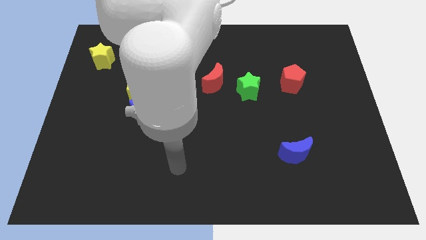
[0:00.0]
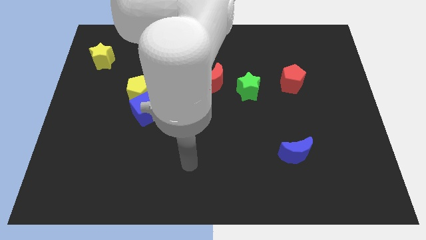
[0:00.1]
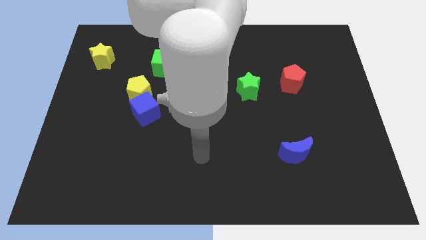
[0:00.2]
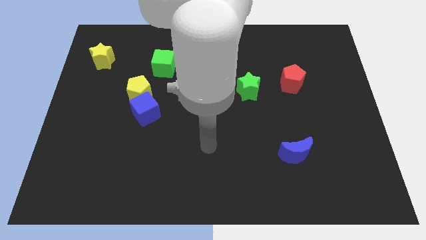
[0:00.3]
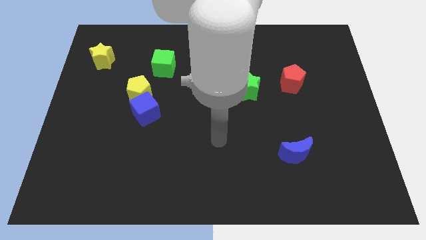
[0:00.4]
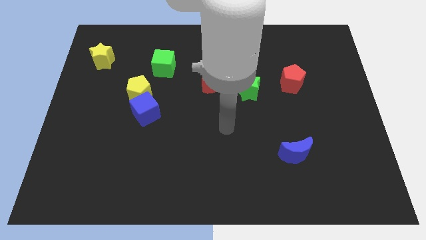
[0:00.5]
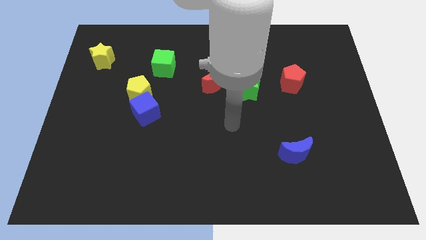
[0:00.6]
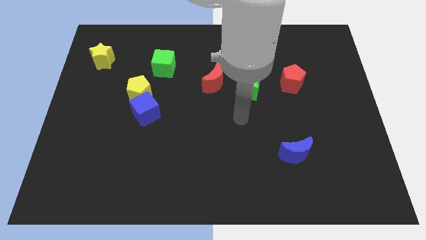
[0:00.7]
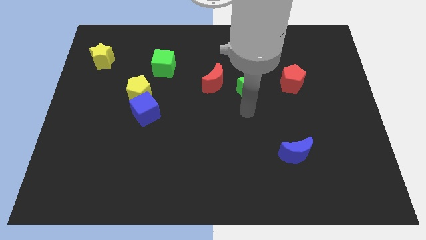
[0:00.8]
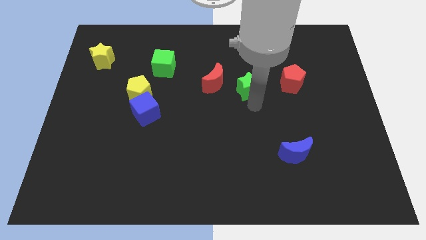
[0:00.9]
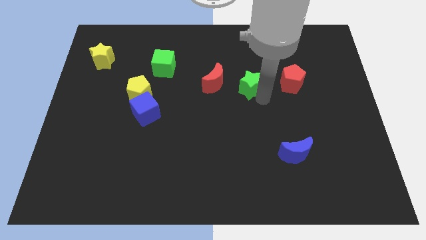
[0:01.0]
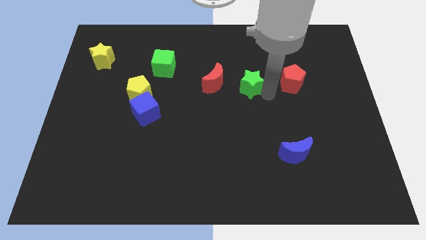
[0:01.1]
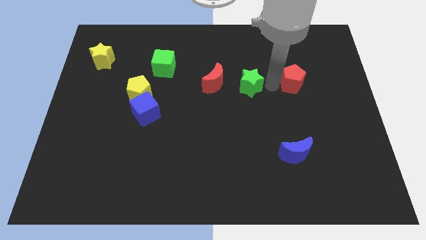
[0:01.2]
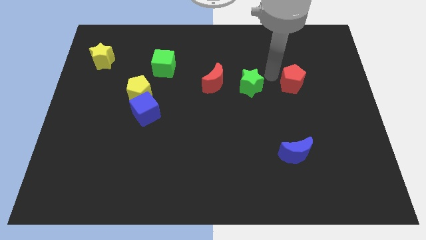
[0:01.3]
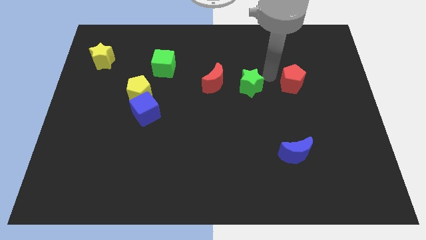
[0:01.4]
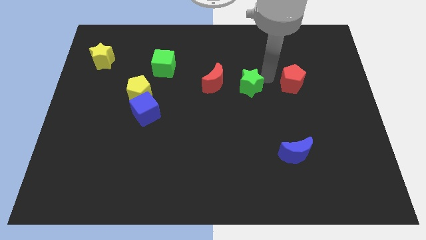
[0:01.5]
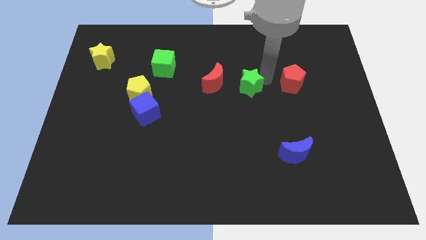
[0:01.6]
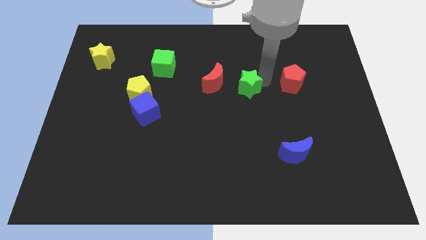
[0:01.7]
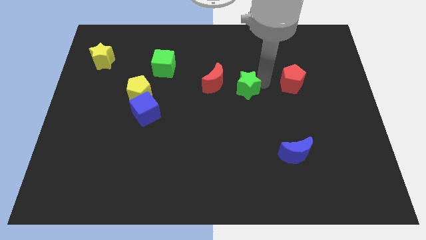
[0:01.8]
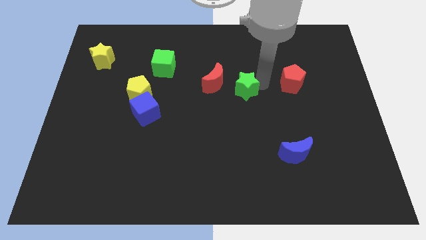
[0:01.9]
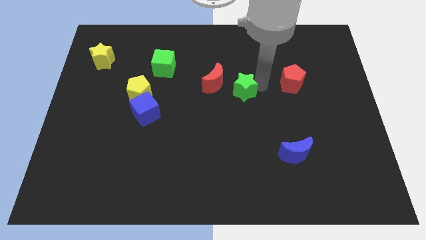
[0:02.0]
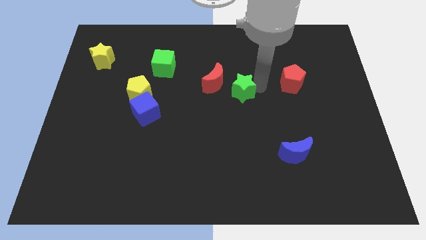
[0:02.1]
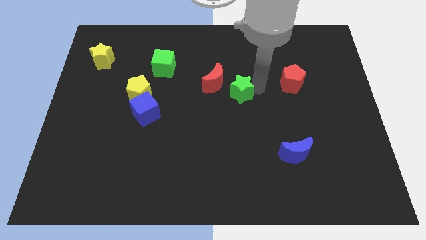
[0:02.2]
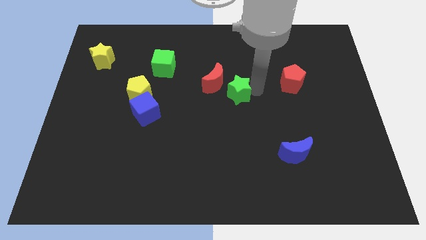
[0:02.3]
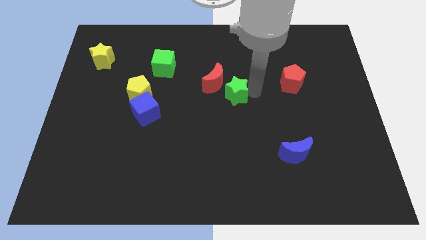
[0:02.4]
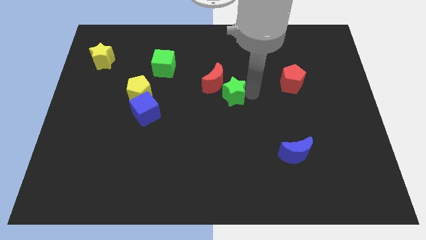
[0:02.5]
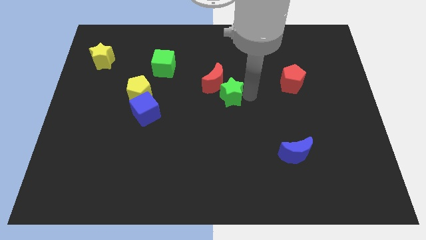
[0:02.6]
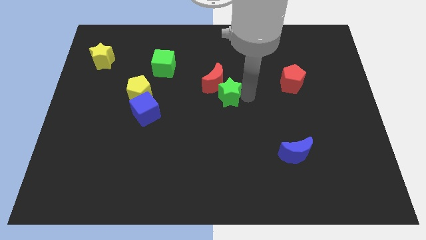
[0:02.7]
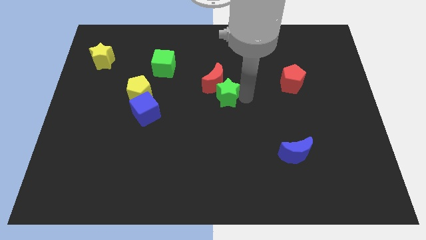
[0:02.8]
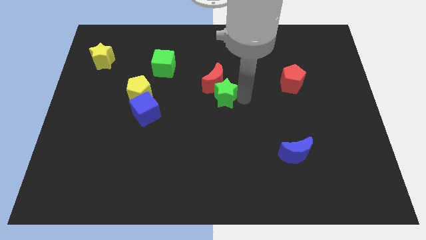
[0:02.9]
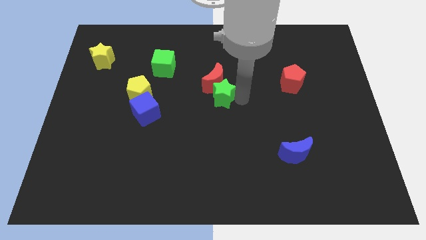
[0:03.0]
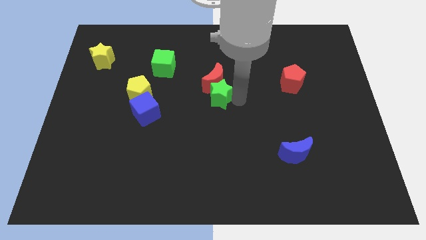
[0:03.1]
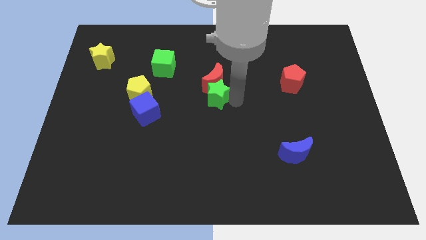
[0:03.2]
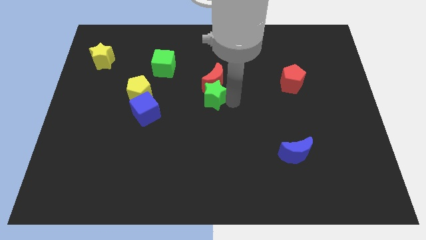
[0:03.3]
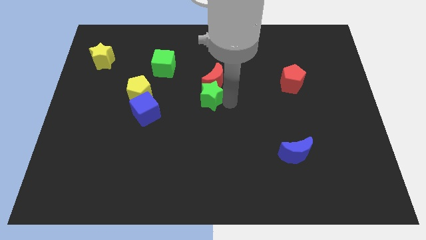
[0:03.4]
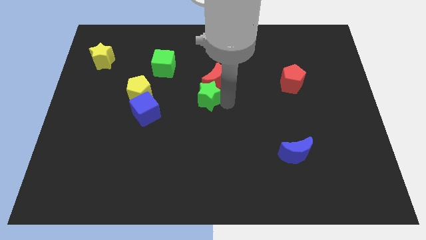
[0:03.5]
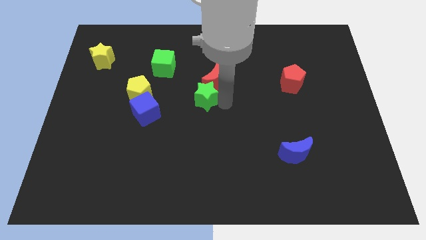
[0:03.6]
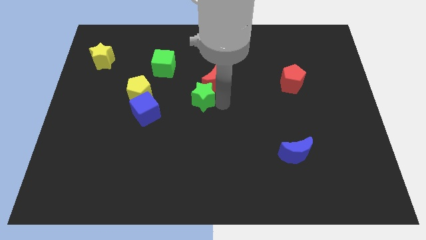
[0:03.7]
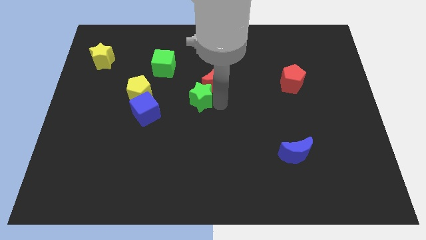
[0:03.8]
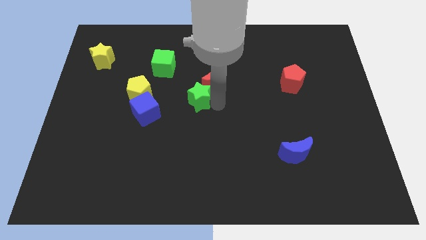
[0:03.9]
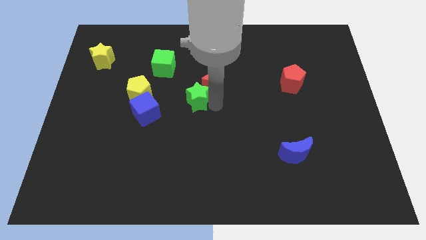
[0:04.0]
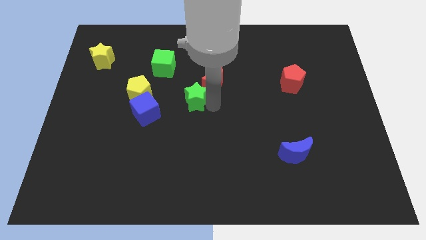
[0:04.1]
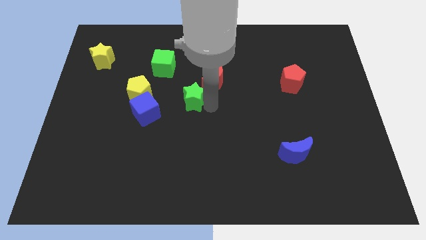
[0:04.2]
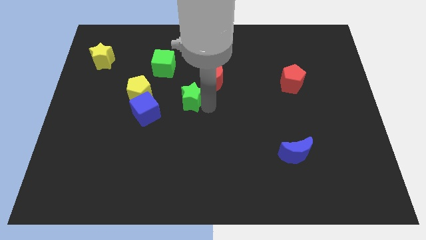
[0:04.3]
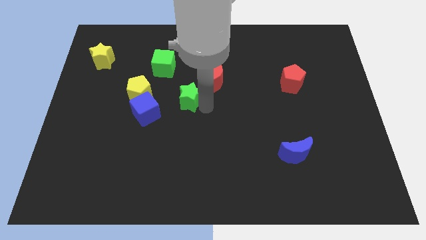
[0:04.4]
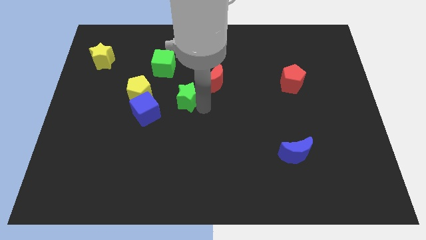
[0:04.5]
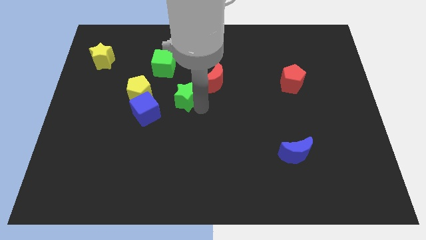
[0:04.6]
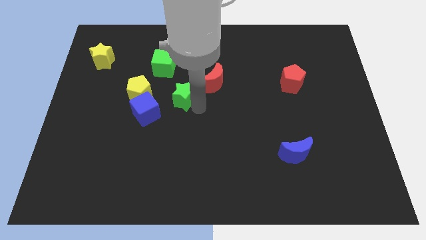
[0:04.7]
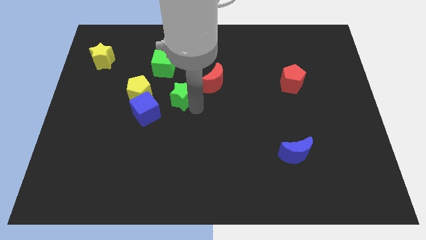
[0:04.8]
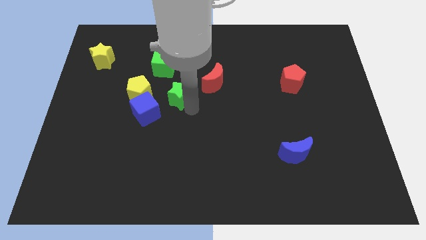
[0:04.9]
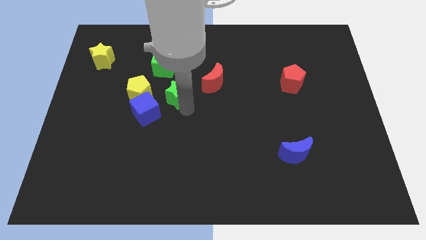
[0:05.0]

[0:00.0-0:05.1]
slide the green star to the left side of the red moon

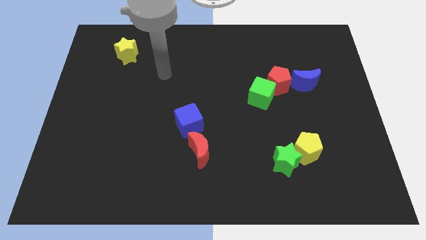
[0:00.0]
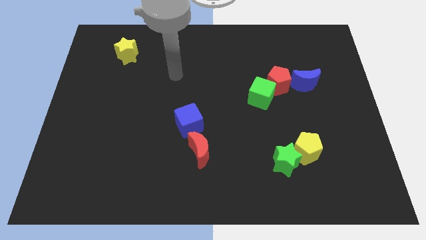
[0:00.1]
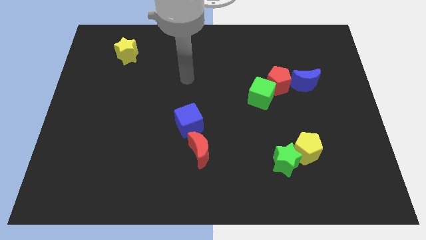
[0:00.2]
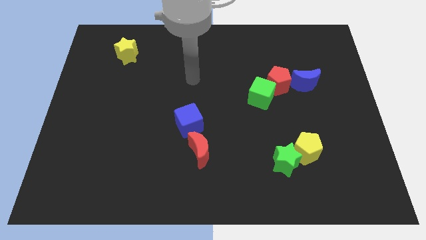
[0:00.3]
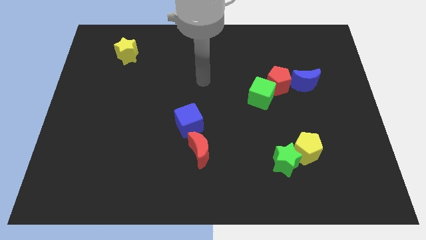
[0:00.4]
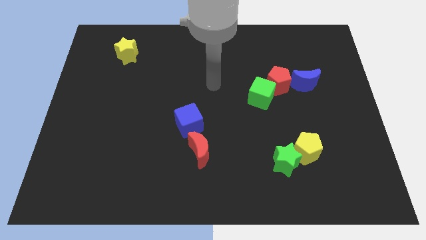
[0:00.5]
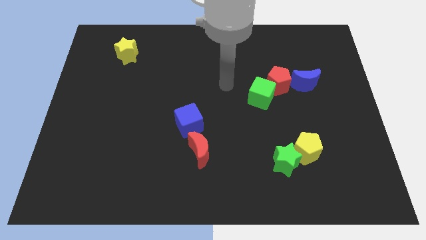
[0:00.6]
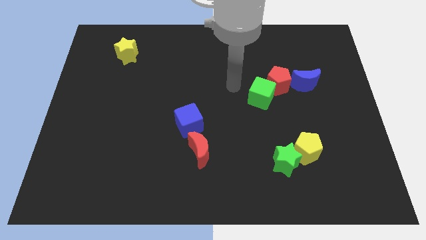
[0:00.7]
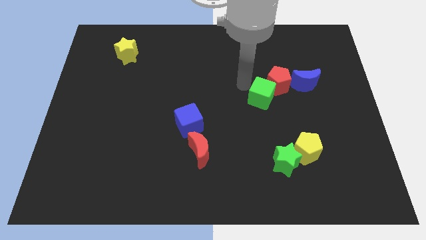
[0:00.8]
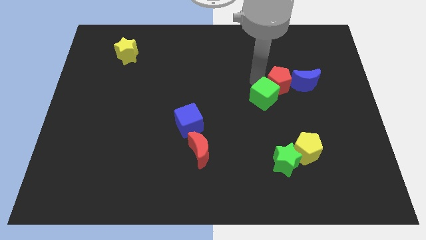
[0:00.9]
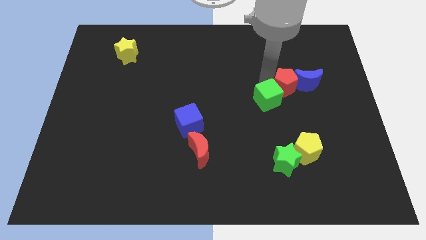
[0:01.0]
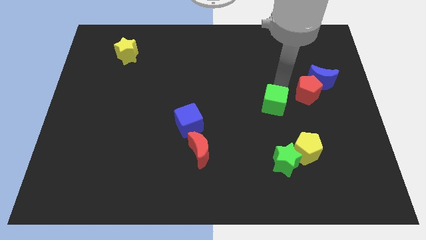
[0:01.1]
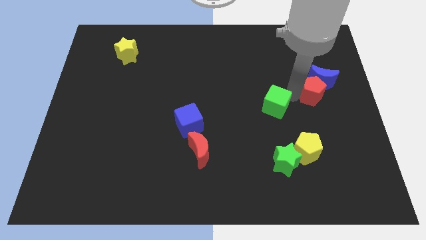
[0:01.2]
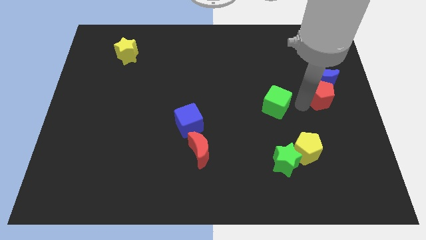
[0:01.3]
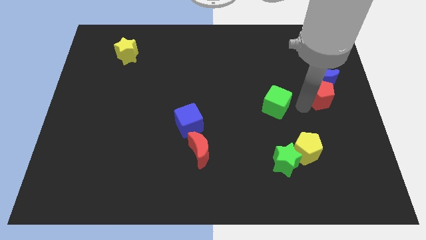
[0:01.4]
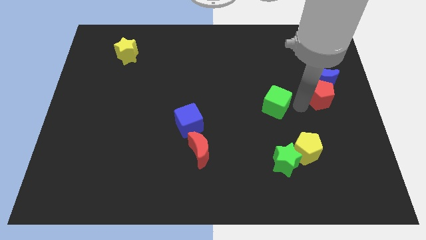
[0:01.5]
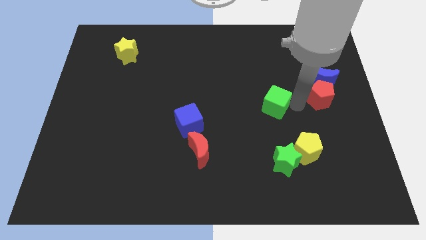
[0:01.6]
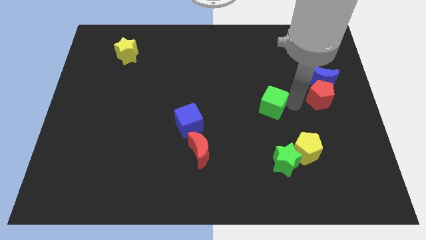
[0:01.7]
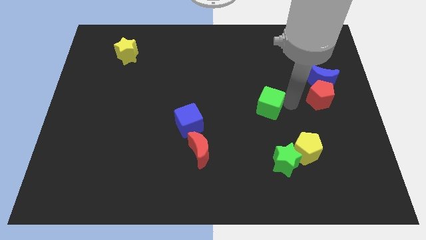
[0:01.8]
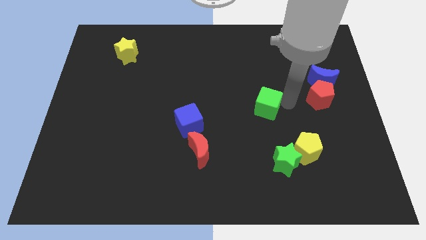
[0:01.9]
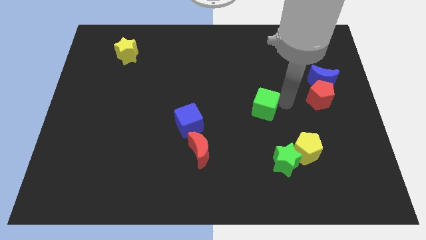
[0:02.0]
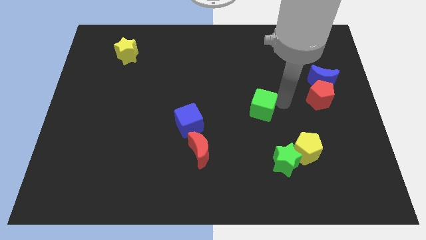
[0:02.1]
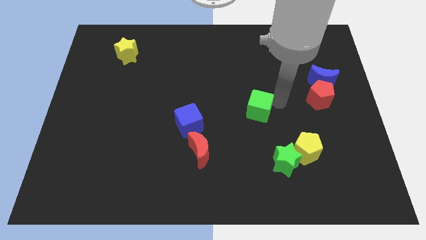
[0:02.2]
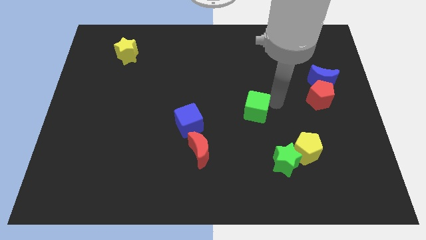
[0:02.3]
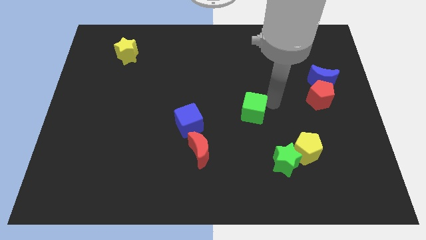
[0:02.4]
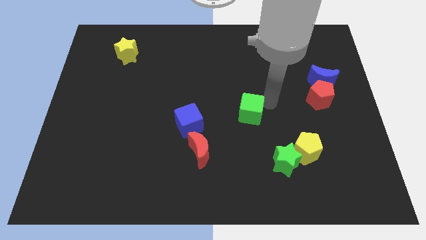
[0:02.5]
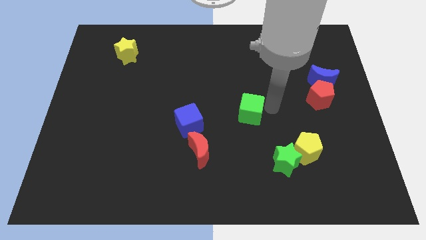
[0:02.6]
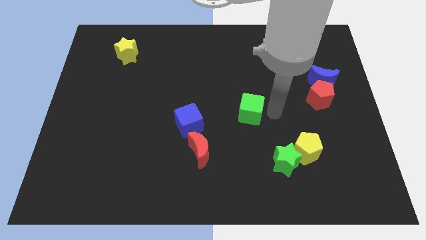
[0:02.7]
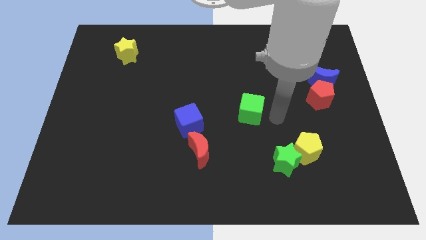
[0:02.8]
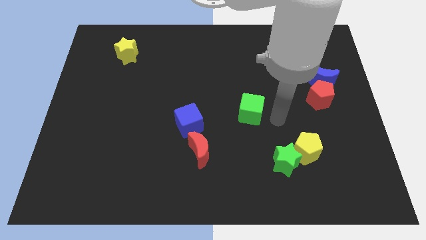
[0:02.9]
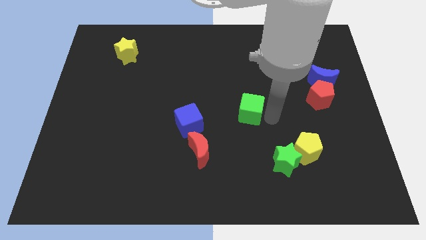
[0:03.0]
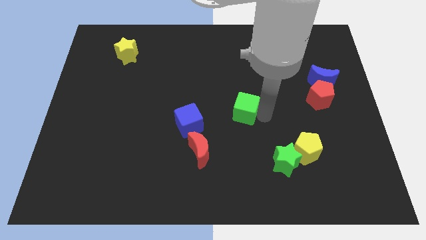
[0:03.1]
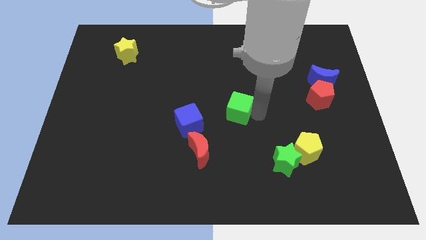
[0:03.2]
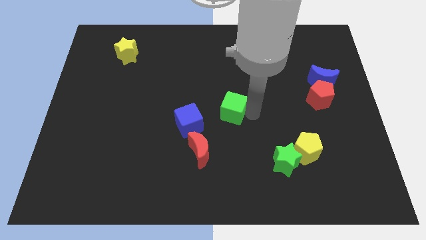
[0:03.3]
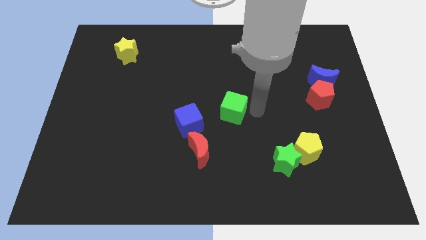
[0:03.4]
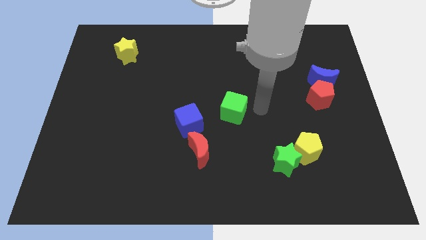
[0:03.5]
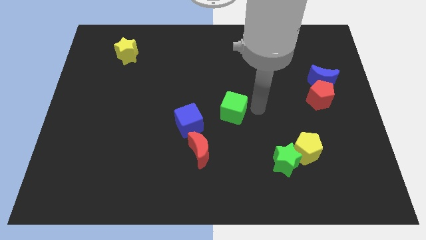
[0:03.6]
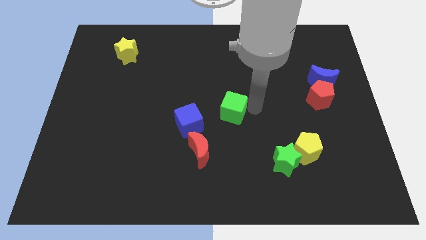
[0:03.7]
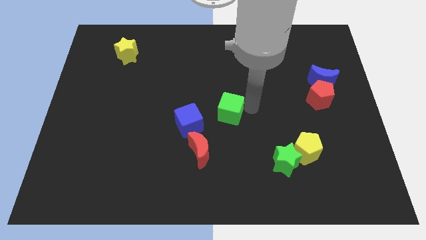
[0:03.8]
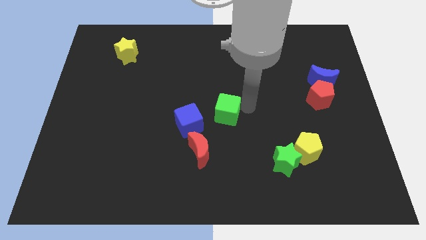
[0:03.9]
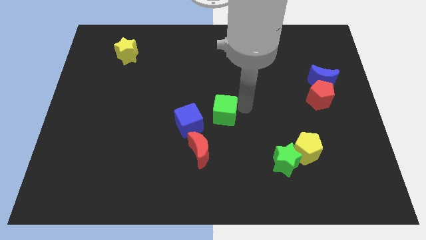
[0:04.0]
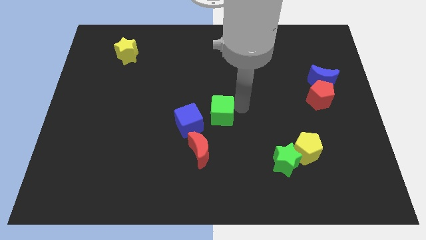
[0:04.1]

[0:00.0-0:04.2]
move the green cube to the top side of the red moon
